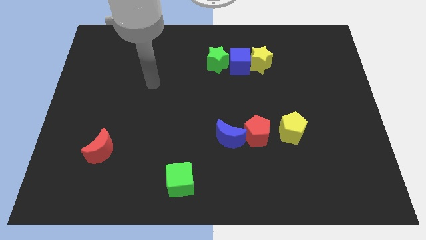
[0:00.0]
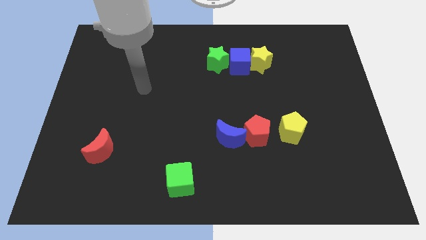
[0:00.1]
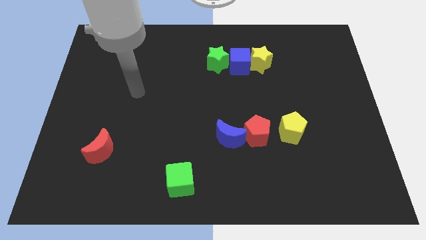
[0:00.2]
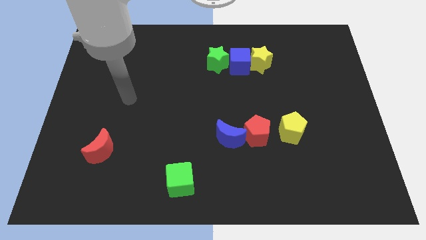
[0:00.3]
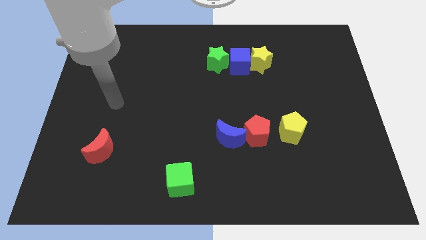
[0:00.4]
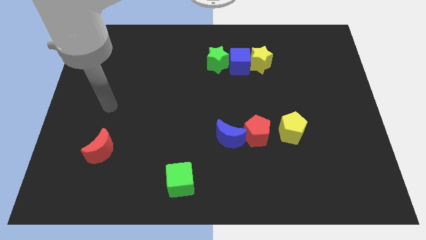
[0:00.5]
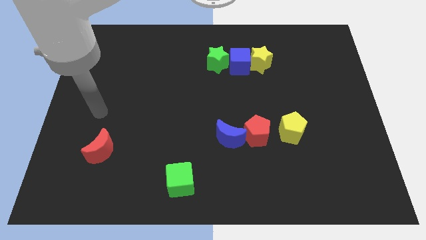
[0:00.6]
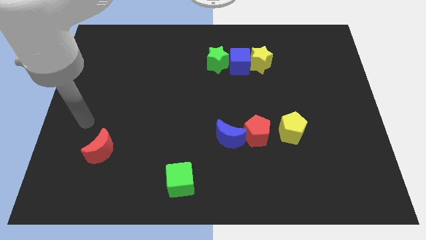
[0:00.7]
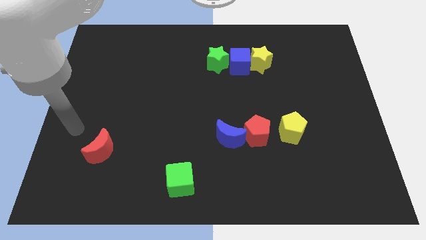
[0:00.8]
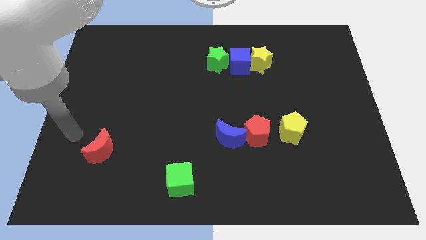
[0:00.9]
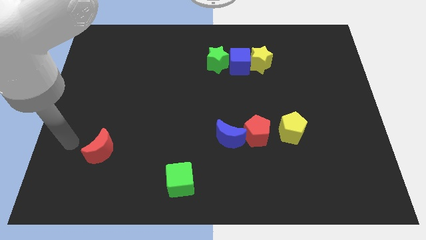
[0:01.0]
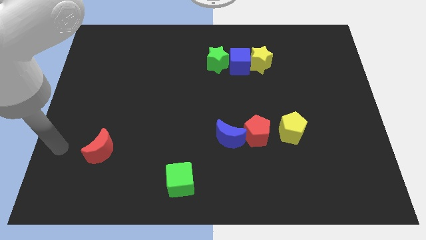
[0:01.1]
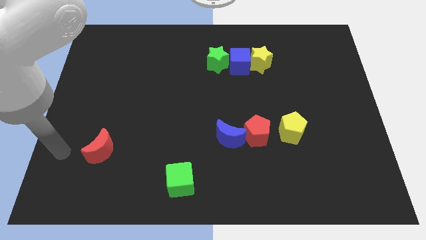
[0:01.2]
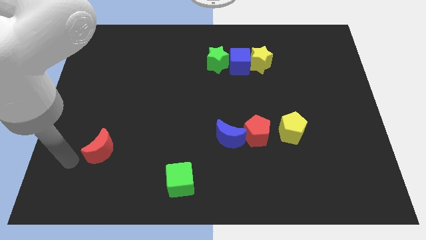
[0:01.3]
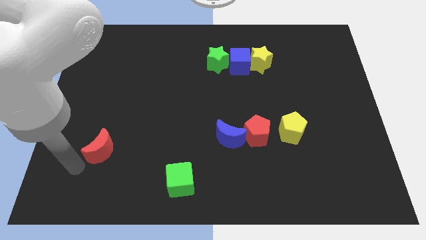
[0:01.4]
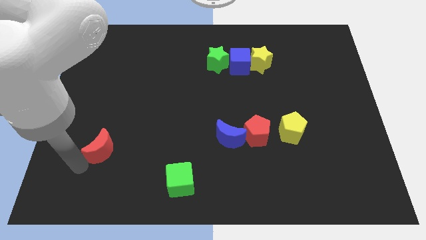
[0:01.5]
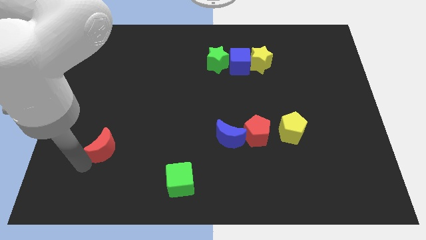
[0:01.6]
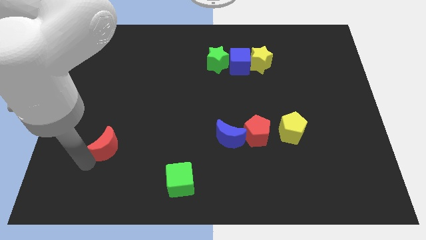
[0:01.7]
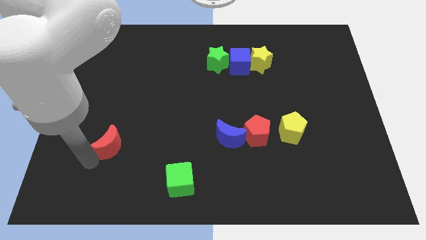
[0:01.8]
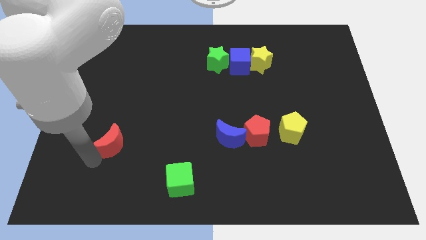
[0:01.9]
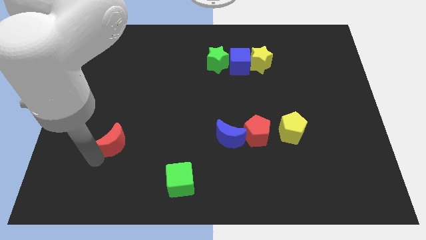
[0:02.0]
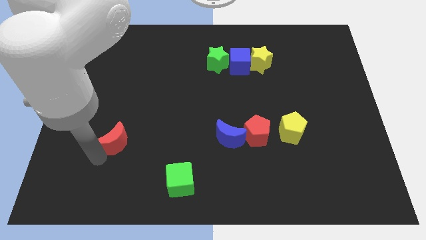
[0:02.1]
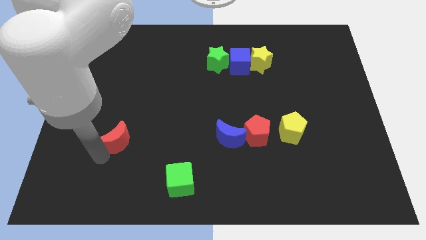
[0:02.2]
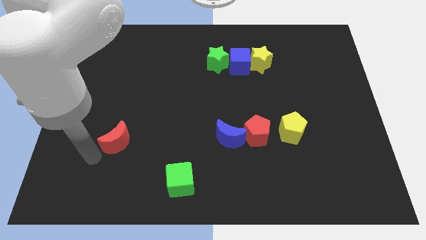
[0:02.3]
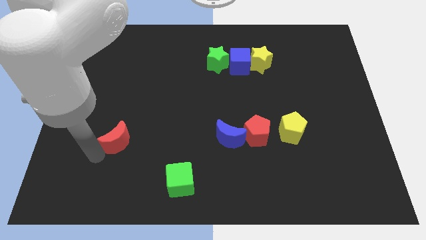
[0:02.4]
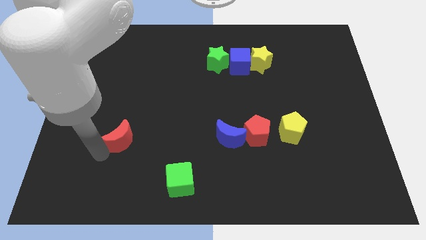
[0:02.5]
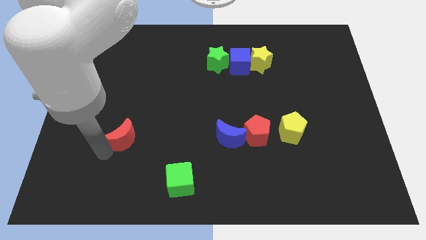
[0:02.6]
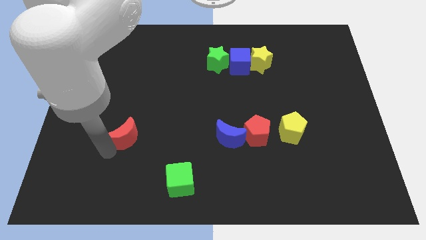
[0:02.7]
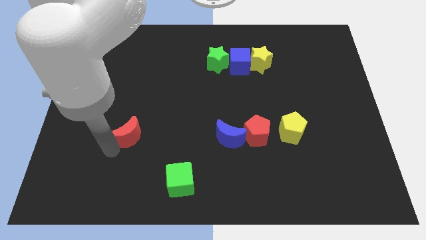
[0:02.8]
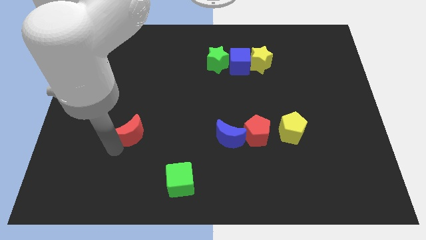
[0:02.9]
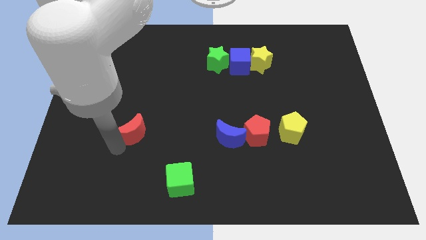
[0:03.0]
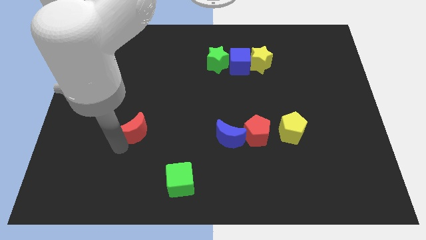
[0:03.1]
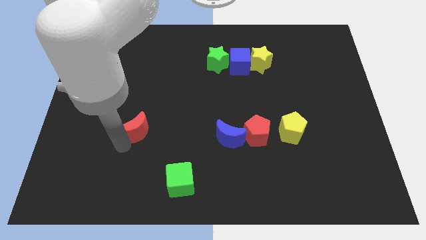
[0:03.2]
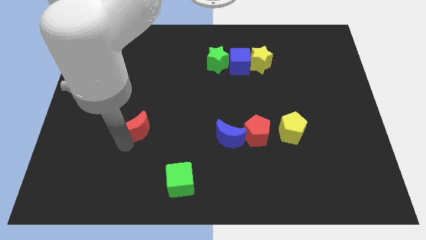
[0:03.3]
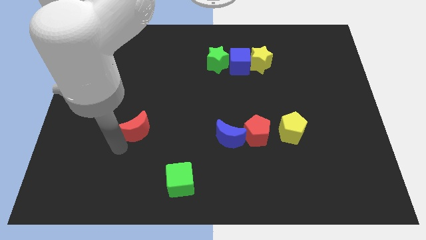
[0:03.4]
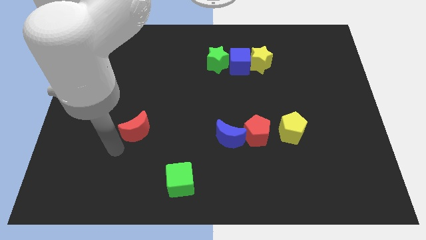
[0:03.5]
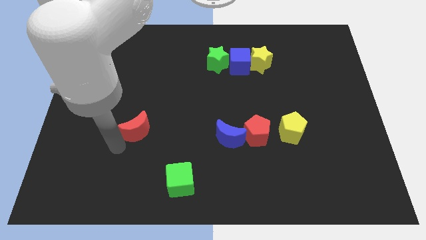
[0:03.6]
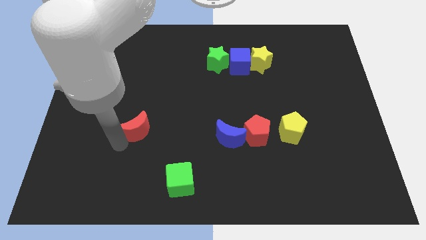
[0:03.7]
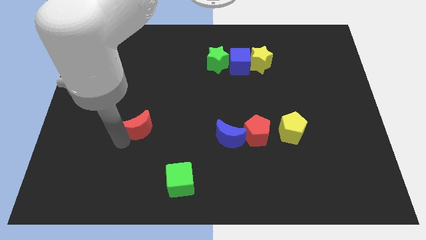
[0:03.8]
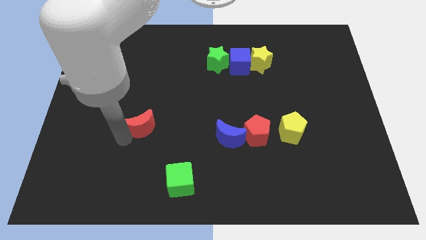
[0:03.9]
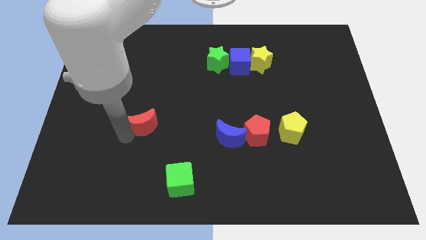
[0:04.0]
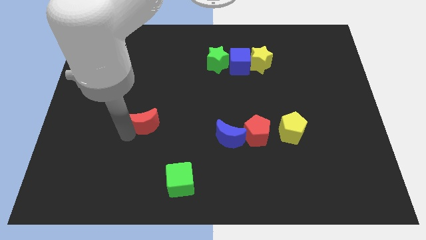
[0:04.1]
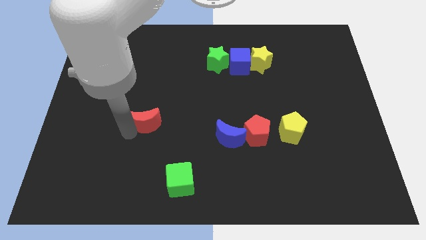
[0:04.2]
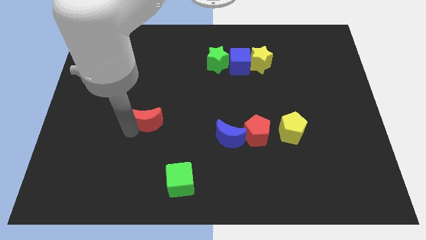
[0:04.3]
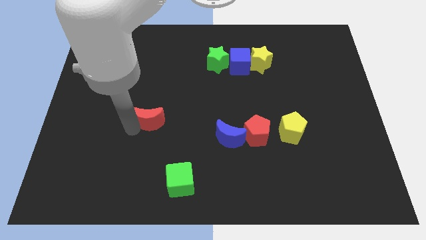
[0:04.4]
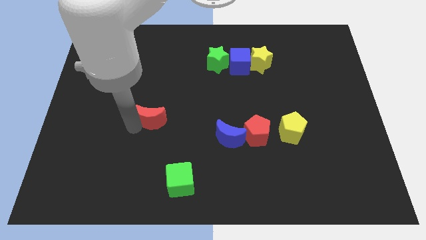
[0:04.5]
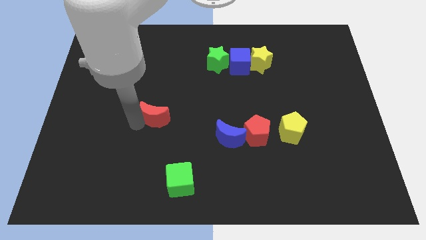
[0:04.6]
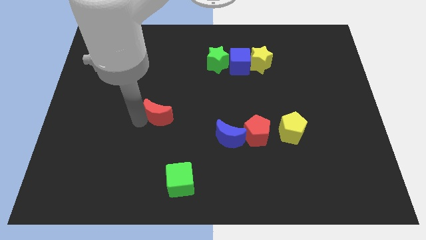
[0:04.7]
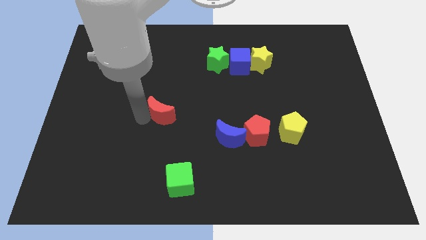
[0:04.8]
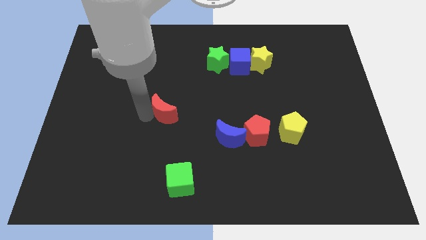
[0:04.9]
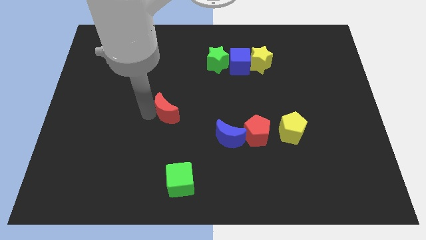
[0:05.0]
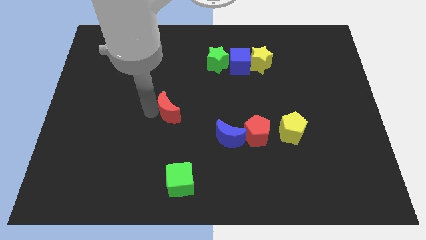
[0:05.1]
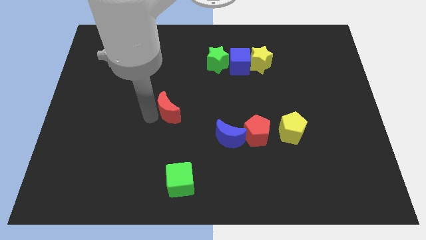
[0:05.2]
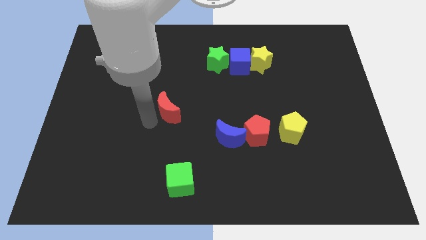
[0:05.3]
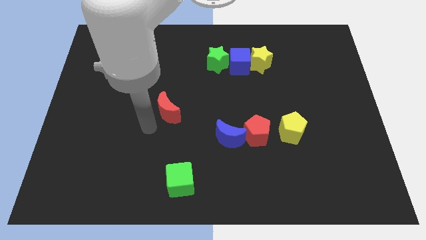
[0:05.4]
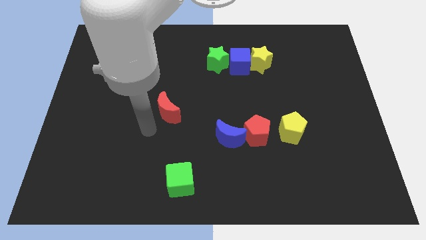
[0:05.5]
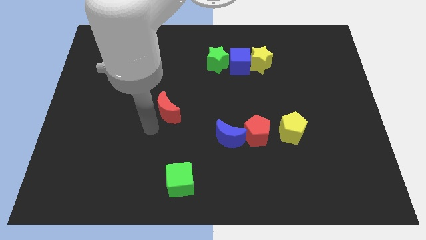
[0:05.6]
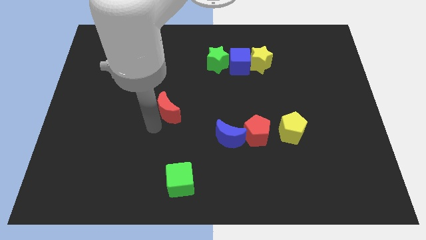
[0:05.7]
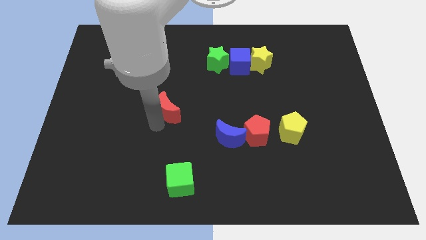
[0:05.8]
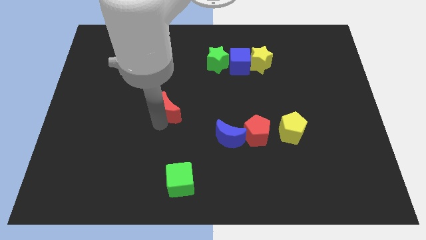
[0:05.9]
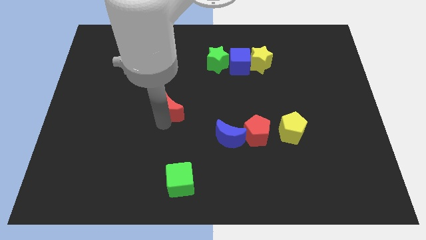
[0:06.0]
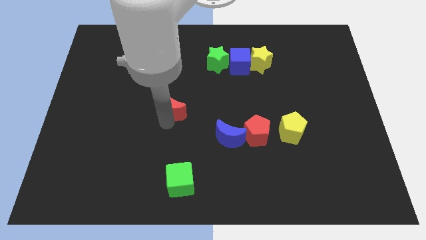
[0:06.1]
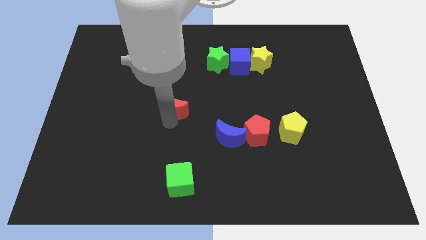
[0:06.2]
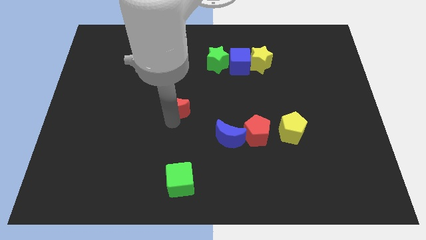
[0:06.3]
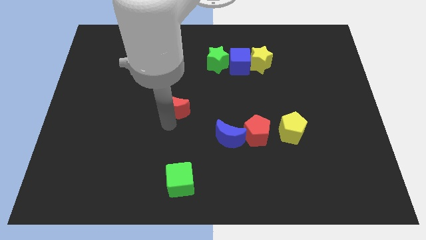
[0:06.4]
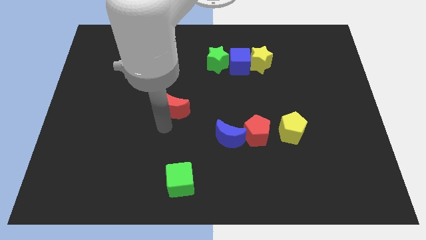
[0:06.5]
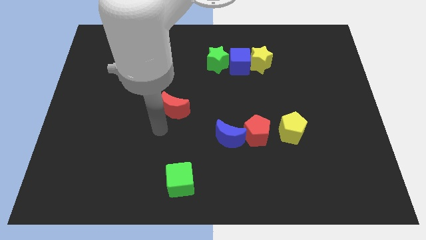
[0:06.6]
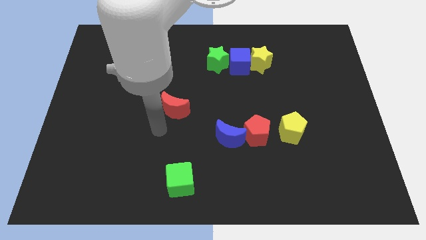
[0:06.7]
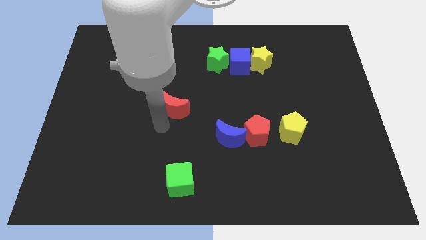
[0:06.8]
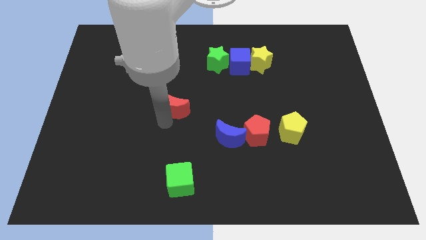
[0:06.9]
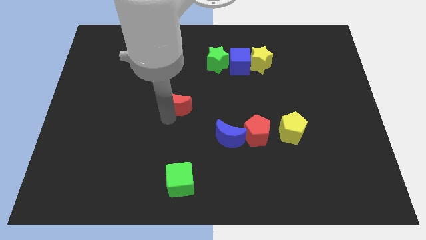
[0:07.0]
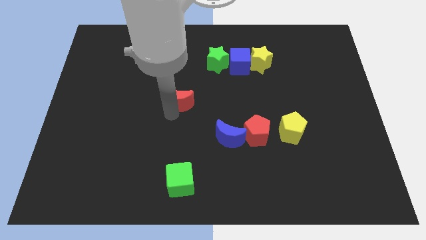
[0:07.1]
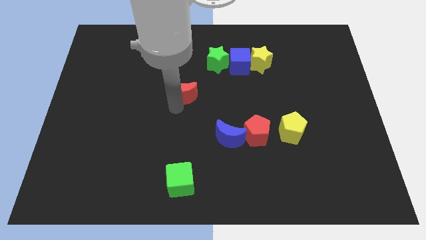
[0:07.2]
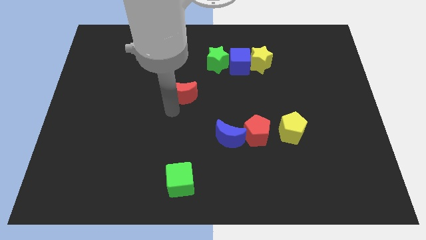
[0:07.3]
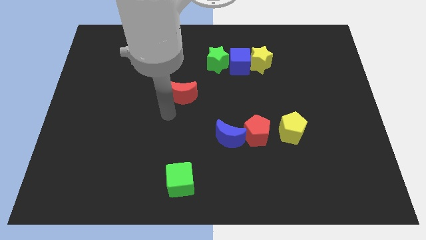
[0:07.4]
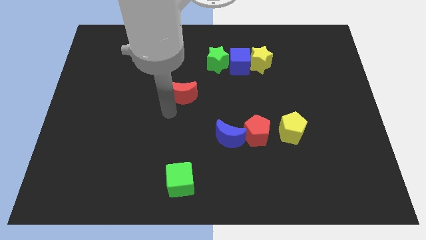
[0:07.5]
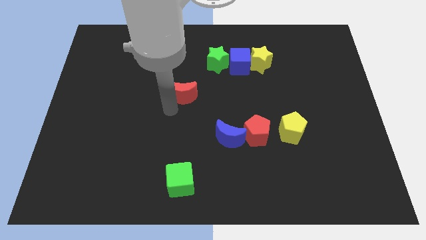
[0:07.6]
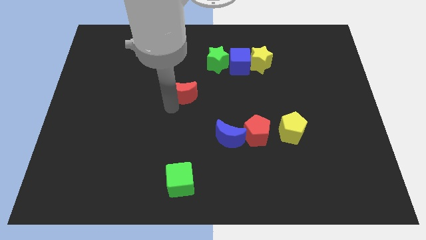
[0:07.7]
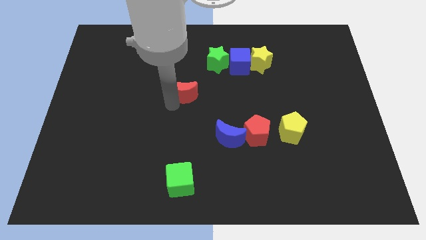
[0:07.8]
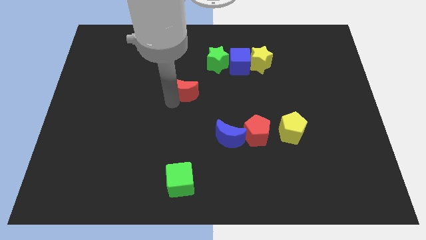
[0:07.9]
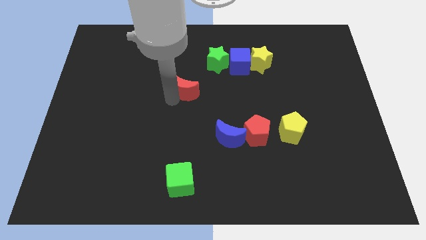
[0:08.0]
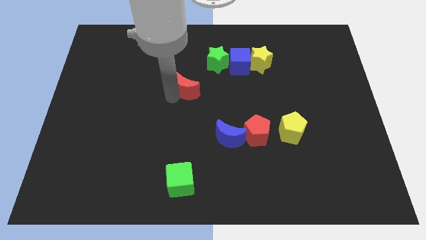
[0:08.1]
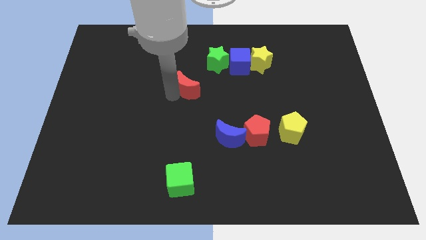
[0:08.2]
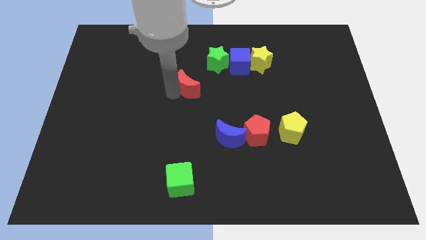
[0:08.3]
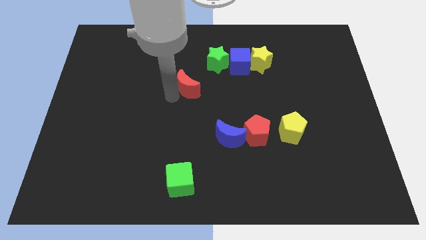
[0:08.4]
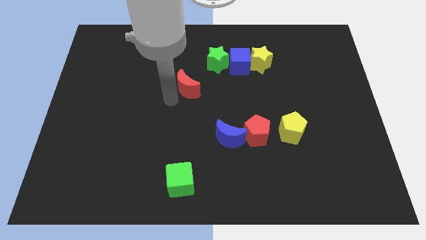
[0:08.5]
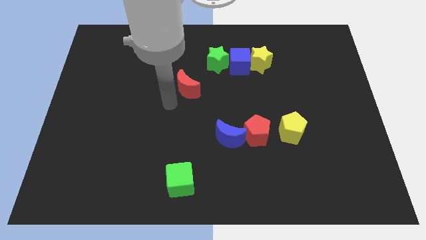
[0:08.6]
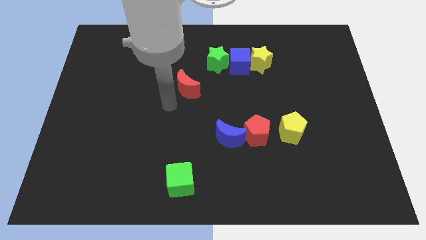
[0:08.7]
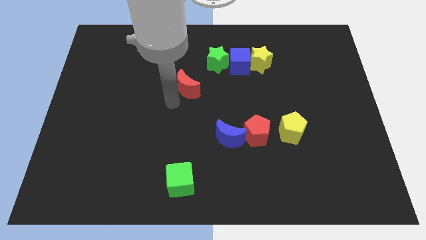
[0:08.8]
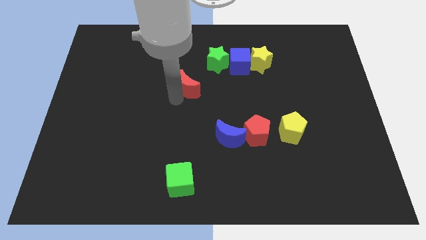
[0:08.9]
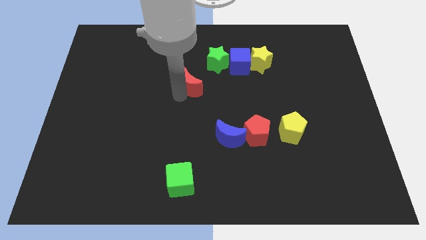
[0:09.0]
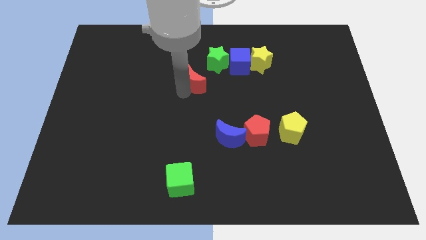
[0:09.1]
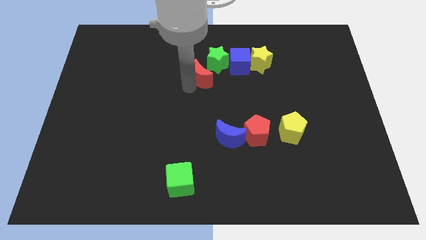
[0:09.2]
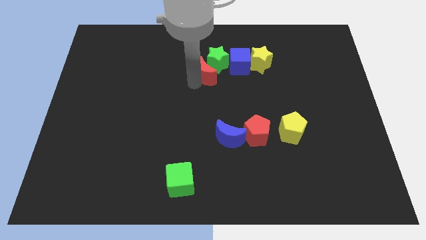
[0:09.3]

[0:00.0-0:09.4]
push the red moon close to the green star
